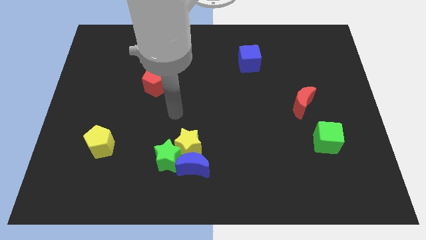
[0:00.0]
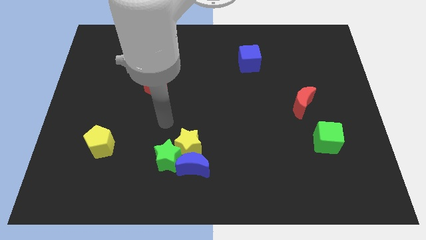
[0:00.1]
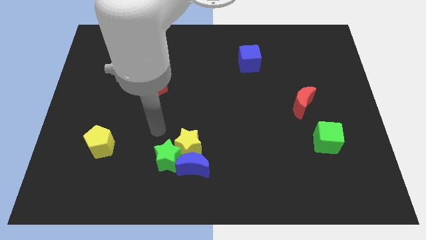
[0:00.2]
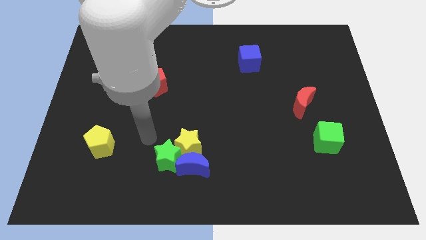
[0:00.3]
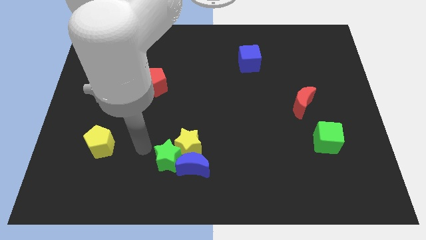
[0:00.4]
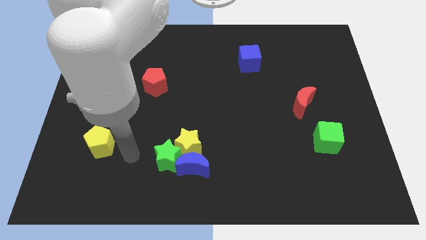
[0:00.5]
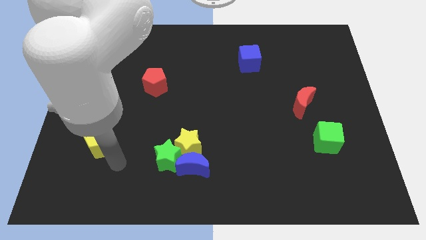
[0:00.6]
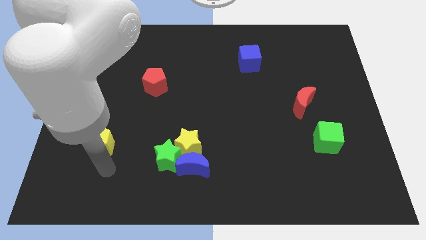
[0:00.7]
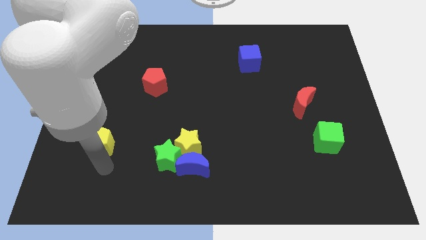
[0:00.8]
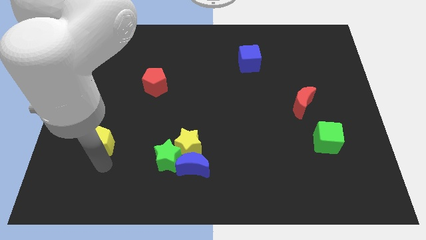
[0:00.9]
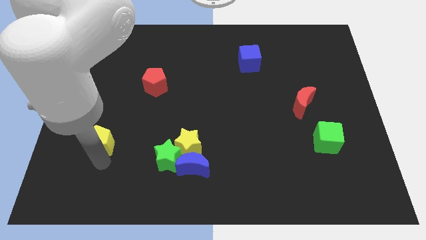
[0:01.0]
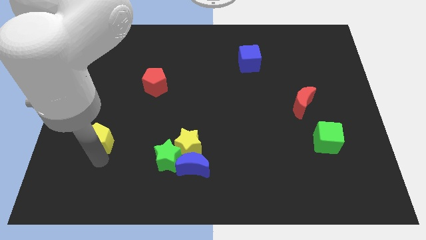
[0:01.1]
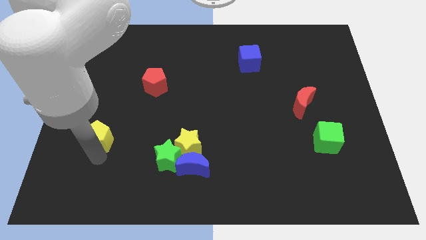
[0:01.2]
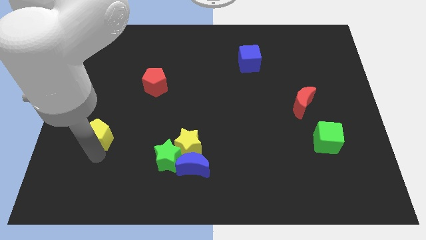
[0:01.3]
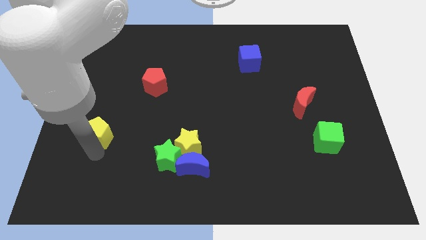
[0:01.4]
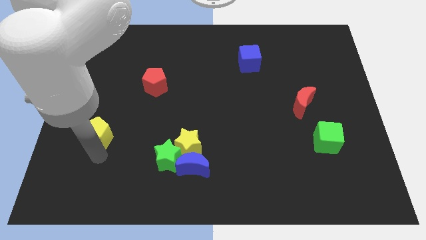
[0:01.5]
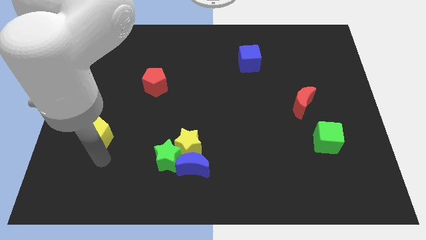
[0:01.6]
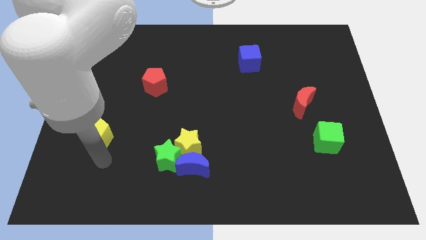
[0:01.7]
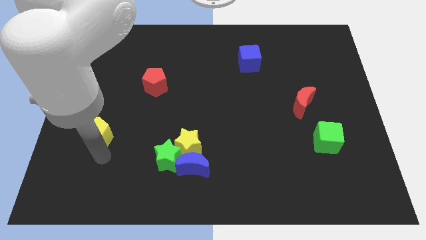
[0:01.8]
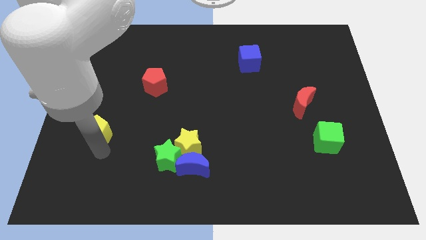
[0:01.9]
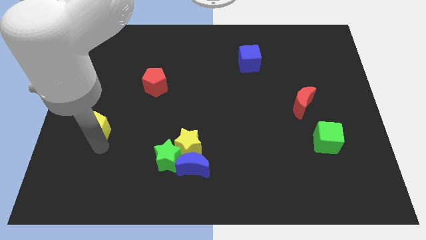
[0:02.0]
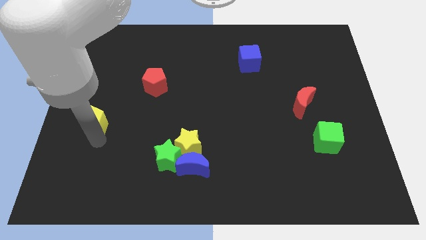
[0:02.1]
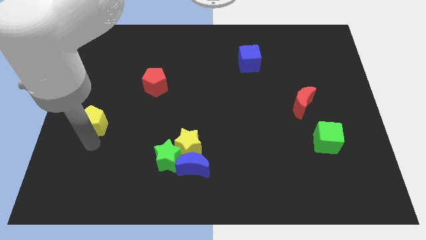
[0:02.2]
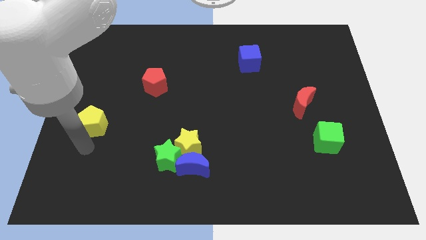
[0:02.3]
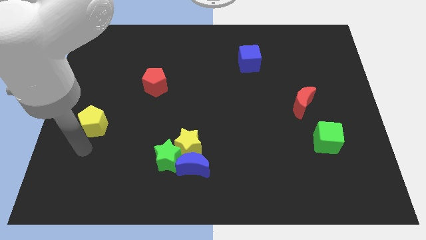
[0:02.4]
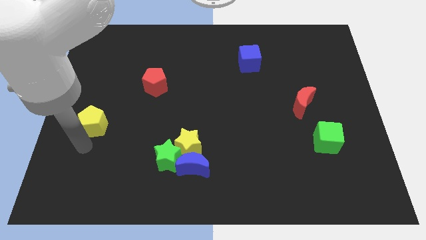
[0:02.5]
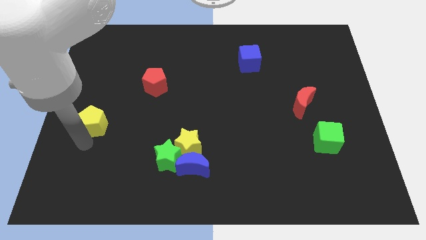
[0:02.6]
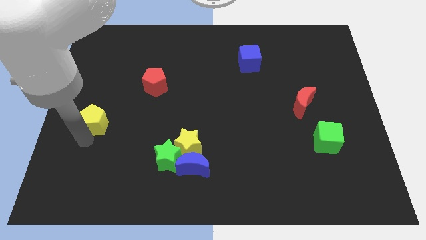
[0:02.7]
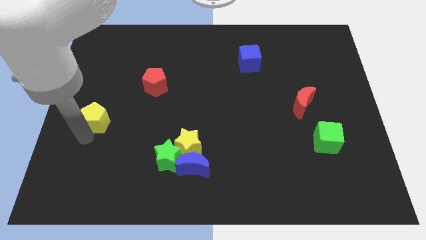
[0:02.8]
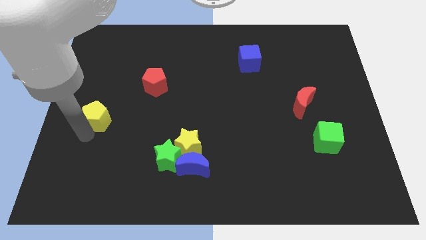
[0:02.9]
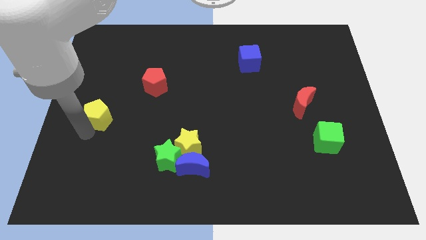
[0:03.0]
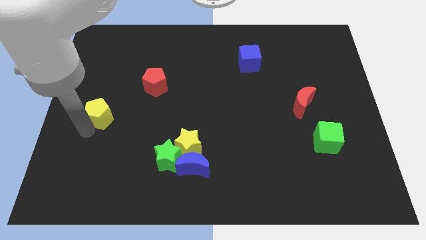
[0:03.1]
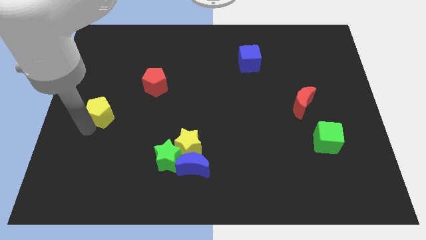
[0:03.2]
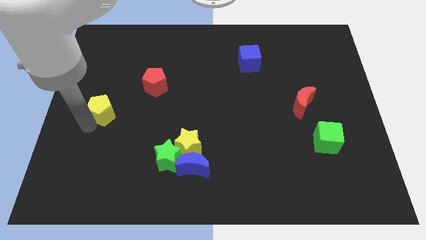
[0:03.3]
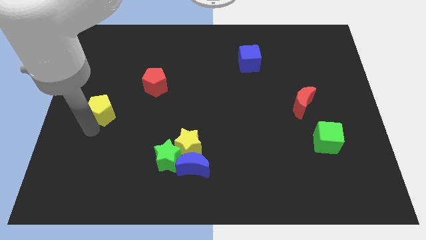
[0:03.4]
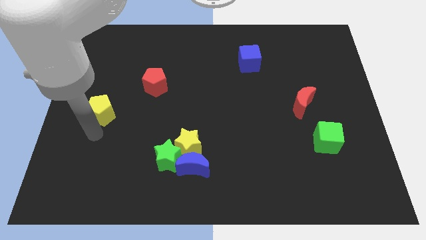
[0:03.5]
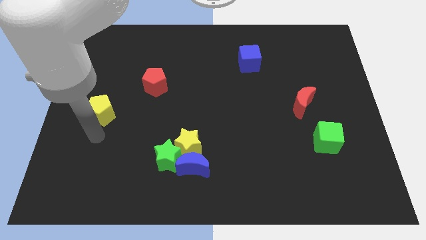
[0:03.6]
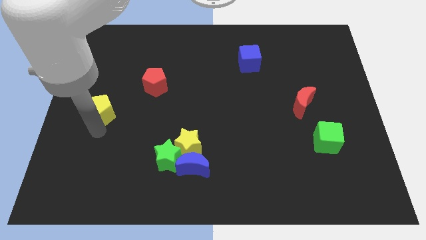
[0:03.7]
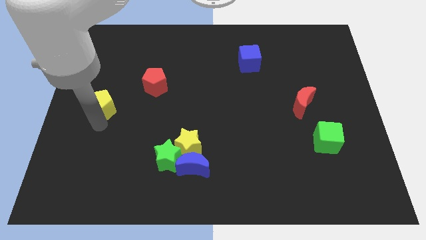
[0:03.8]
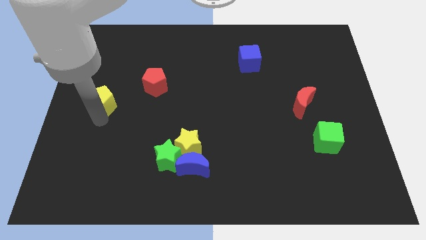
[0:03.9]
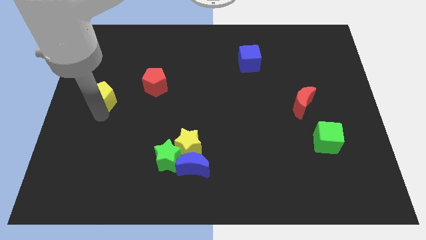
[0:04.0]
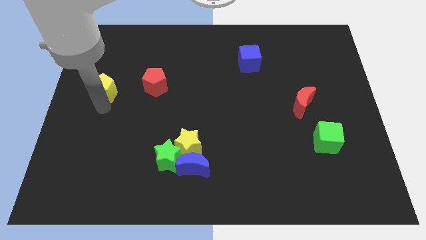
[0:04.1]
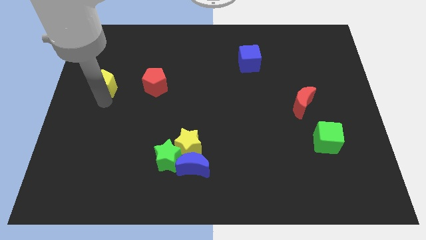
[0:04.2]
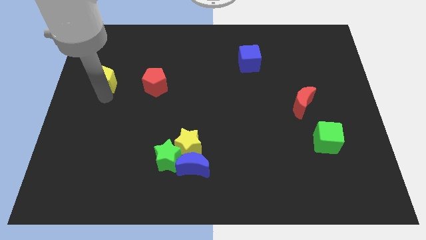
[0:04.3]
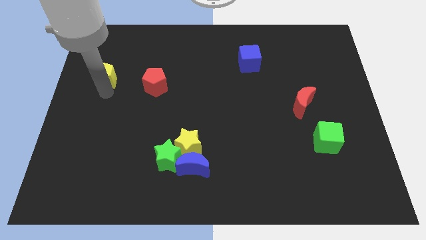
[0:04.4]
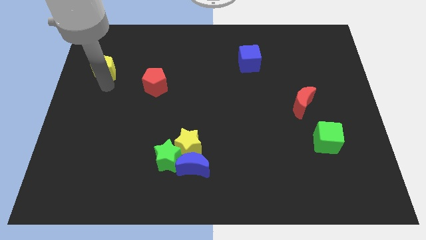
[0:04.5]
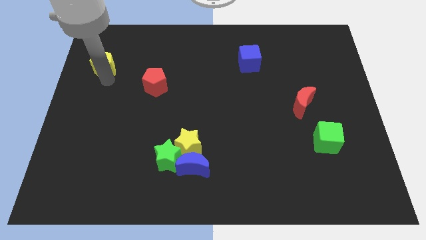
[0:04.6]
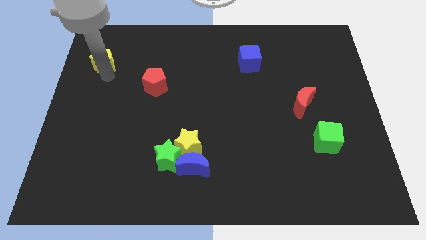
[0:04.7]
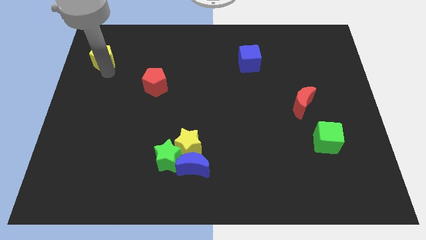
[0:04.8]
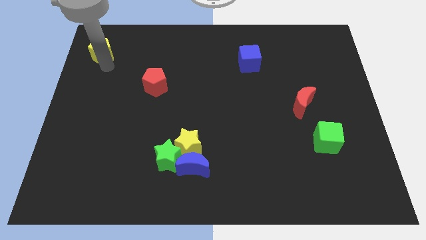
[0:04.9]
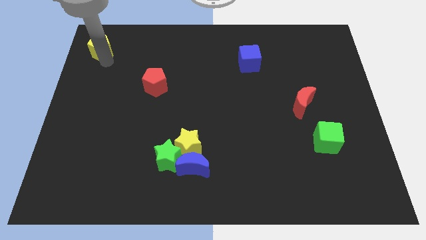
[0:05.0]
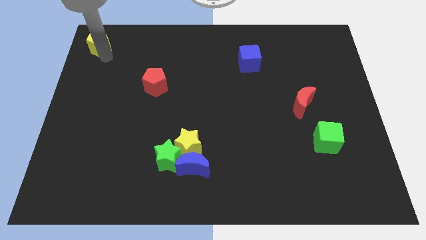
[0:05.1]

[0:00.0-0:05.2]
slide the yellow pentagon to the top left of the board

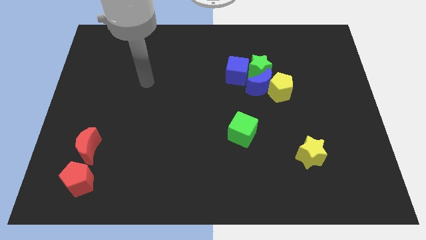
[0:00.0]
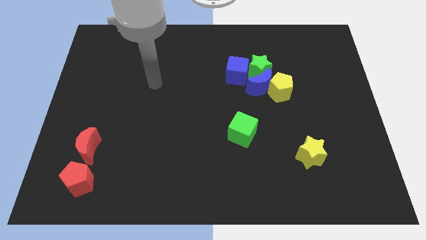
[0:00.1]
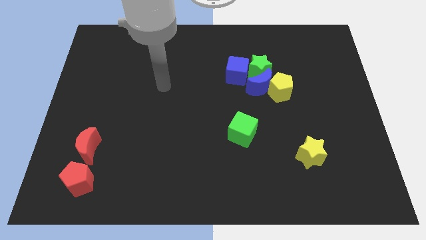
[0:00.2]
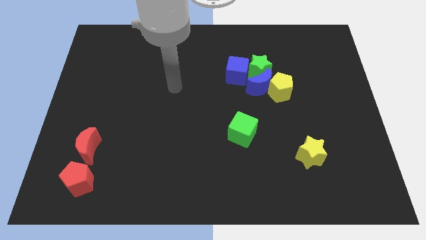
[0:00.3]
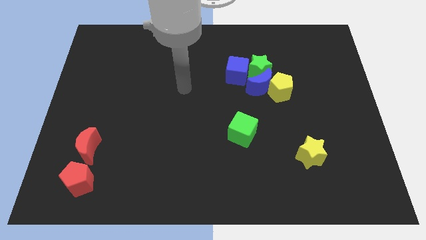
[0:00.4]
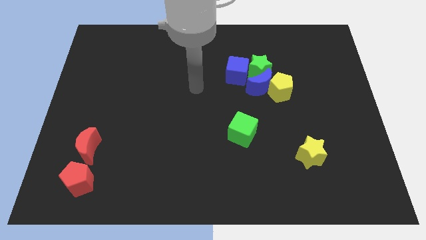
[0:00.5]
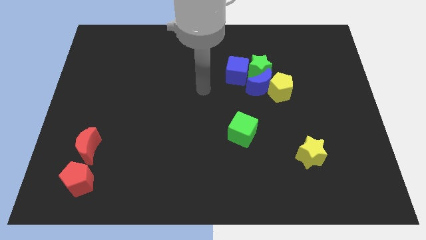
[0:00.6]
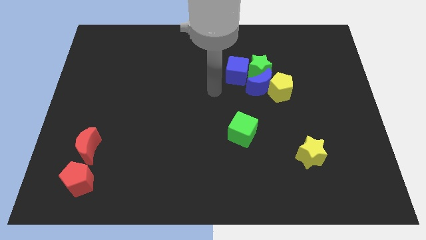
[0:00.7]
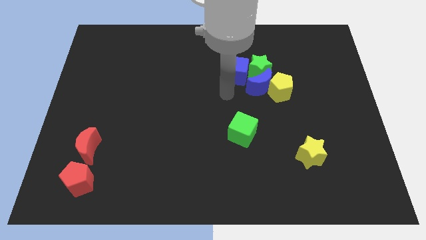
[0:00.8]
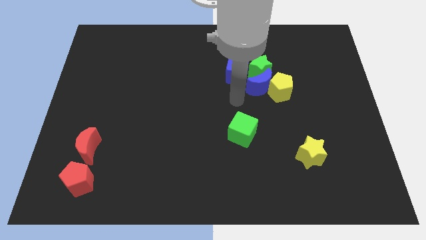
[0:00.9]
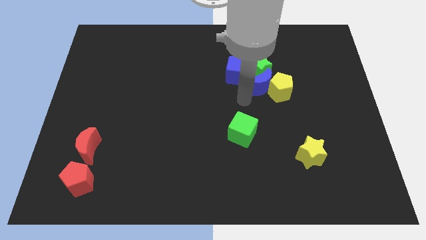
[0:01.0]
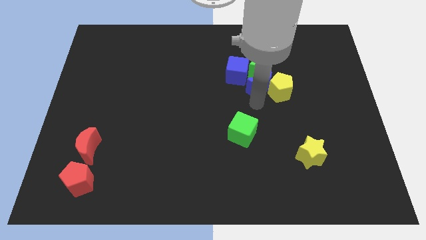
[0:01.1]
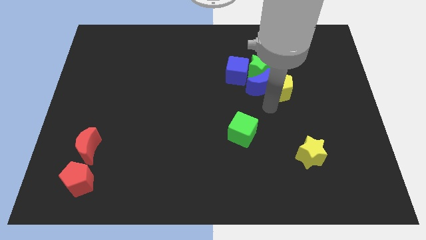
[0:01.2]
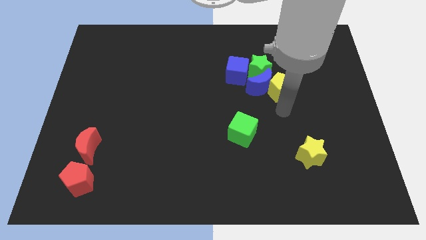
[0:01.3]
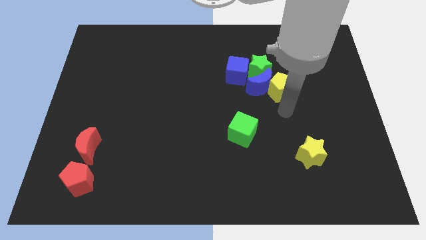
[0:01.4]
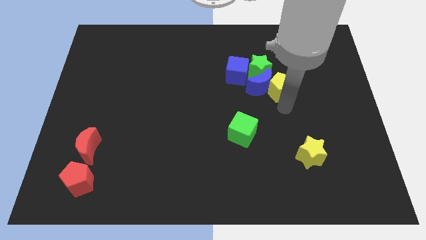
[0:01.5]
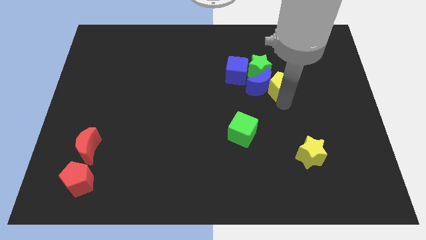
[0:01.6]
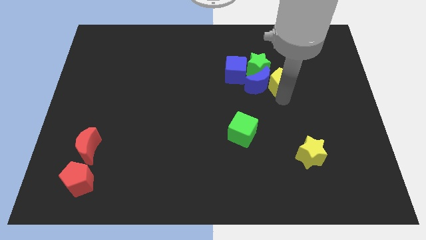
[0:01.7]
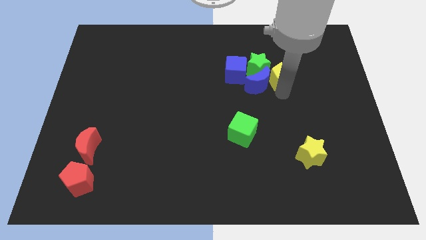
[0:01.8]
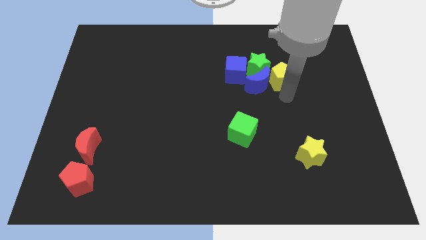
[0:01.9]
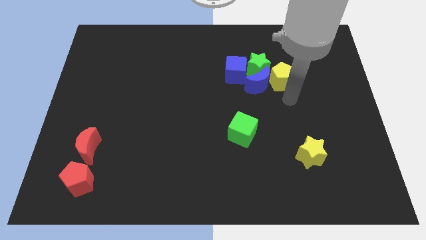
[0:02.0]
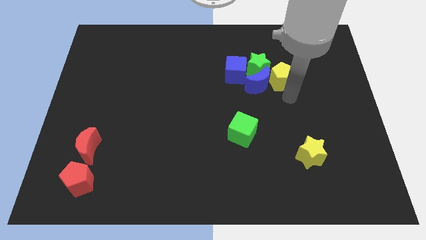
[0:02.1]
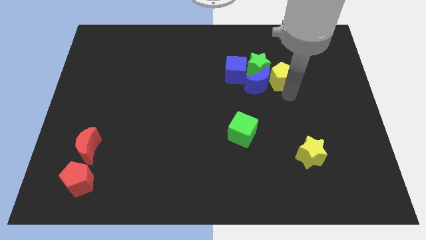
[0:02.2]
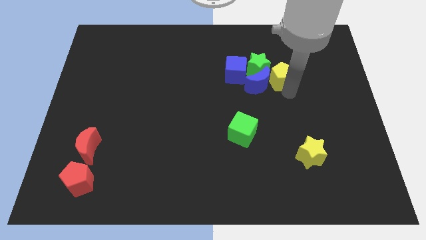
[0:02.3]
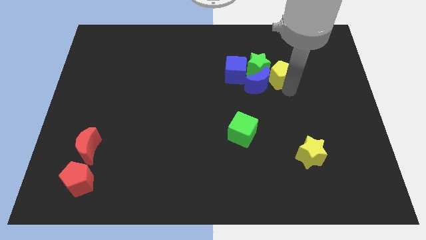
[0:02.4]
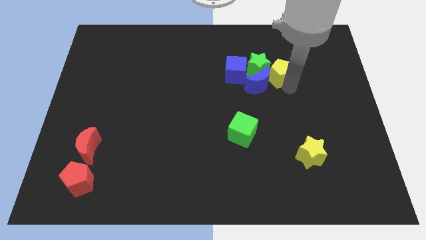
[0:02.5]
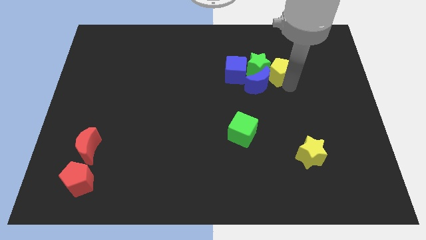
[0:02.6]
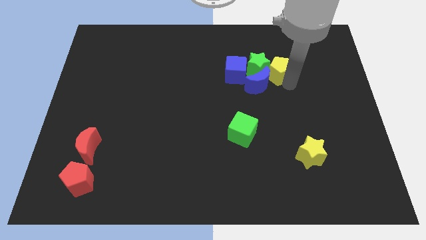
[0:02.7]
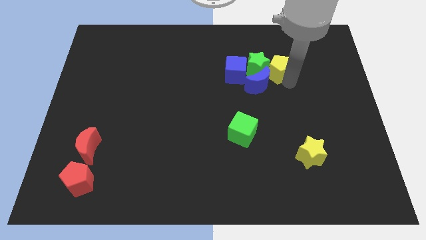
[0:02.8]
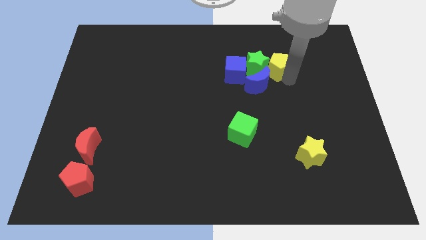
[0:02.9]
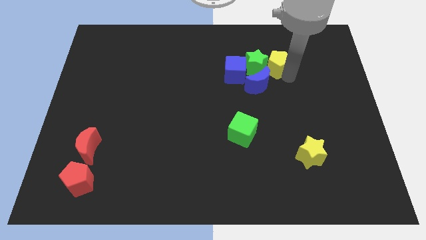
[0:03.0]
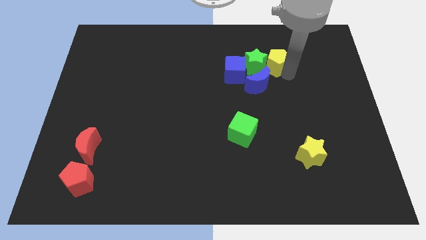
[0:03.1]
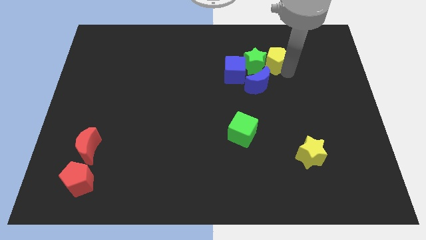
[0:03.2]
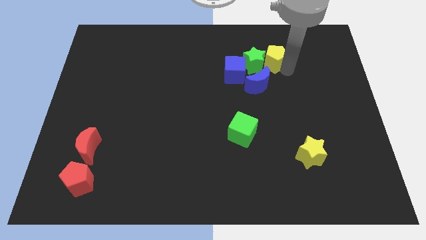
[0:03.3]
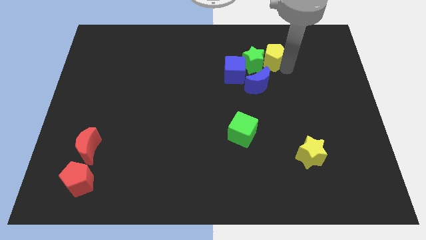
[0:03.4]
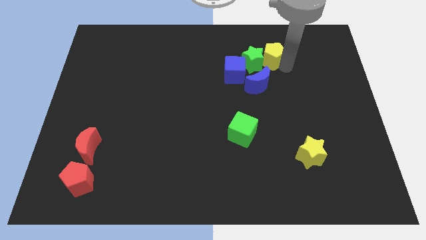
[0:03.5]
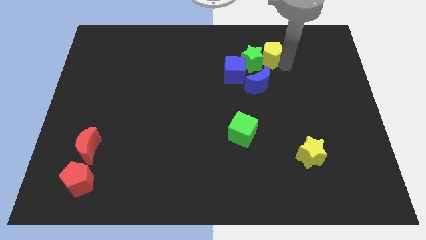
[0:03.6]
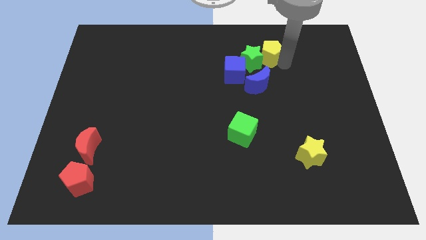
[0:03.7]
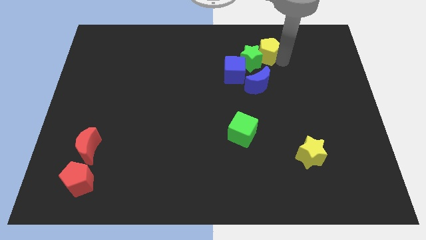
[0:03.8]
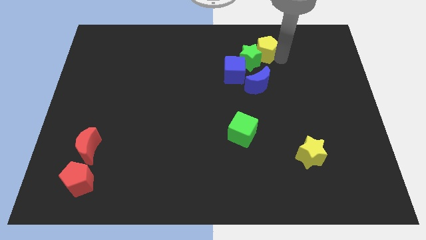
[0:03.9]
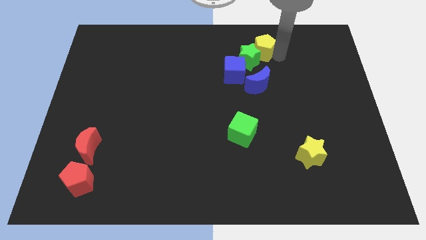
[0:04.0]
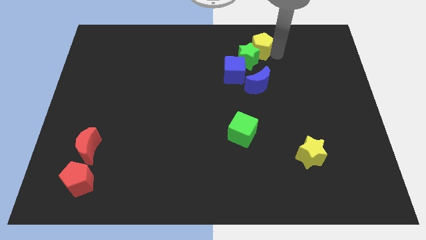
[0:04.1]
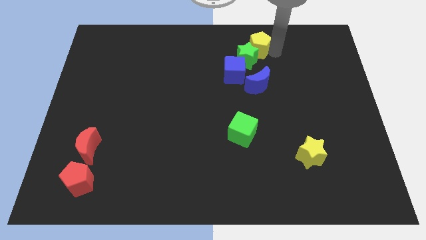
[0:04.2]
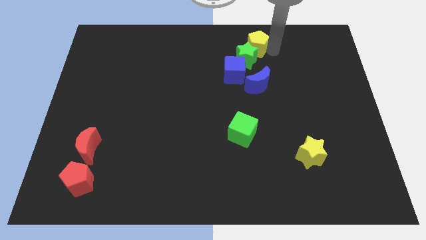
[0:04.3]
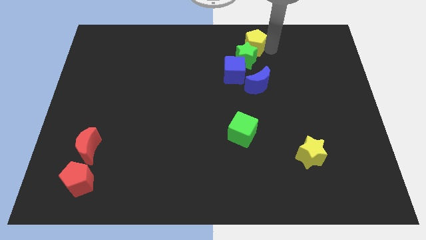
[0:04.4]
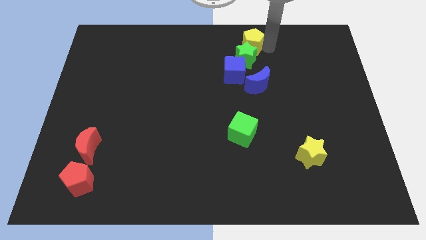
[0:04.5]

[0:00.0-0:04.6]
move the yellow pentagon to the top side
